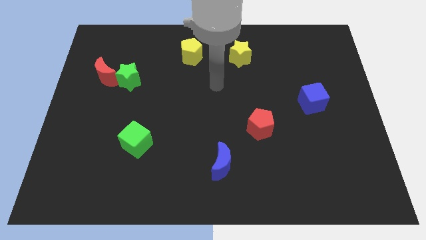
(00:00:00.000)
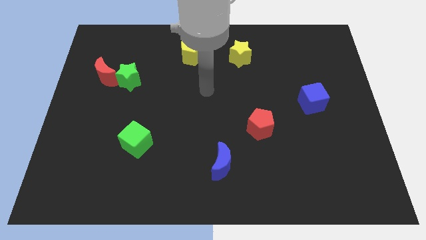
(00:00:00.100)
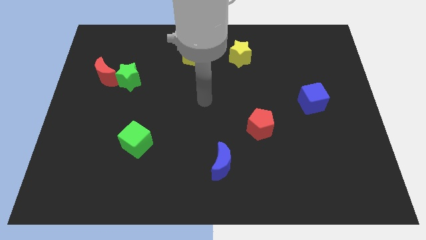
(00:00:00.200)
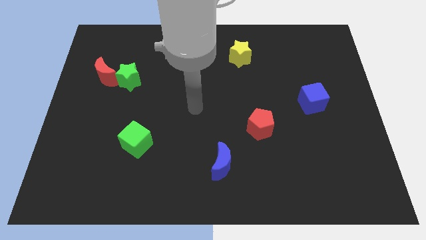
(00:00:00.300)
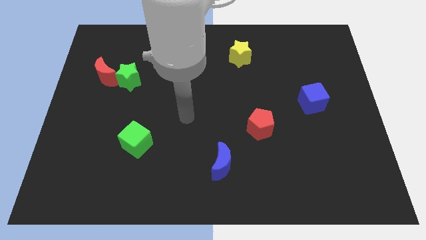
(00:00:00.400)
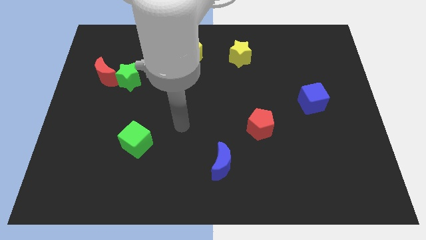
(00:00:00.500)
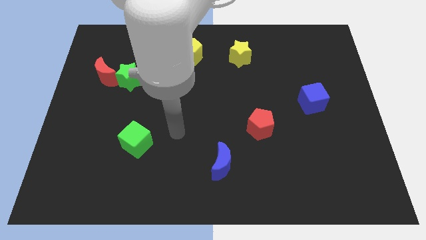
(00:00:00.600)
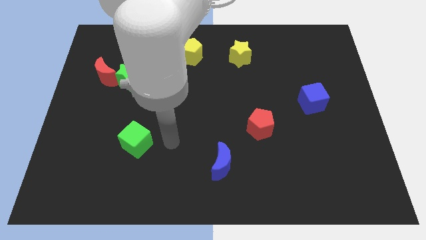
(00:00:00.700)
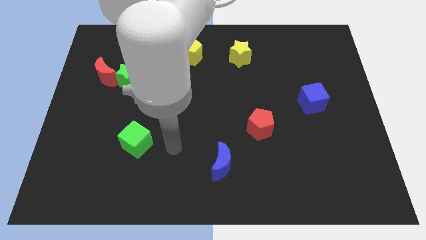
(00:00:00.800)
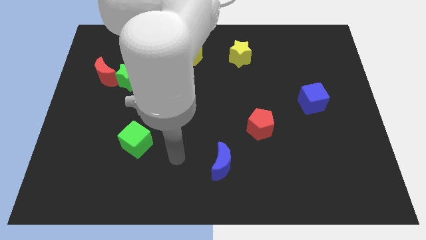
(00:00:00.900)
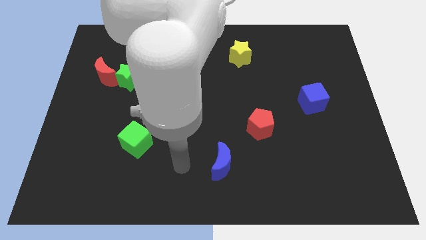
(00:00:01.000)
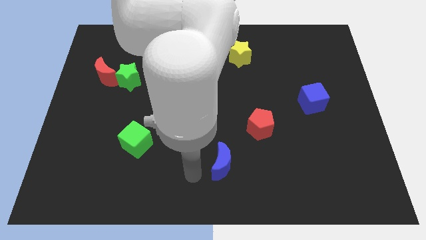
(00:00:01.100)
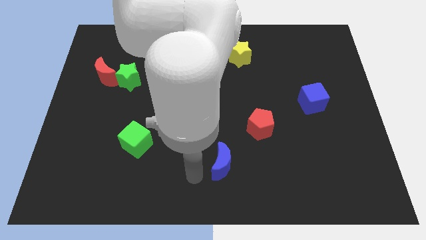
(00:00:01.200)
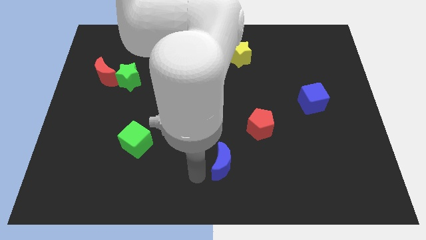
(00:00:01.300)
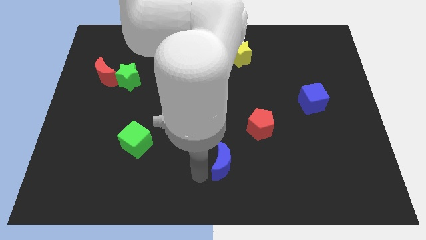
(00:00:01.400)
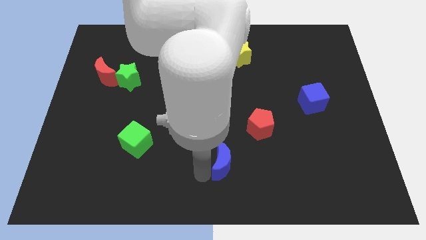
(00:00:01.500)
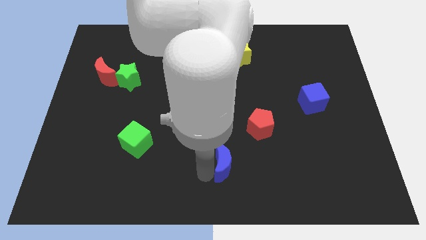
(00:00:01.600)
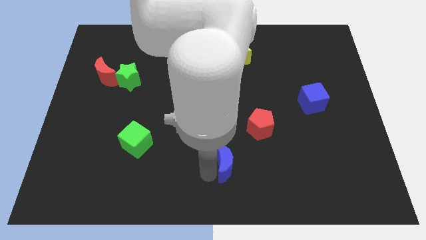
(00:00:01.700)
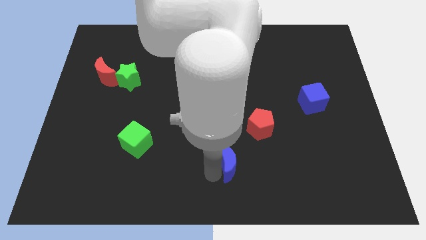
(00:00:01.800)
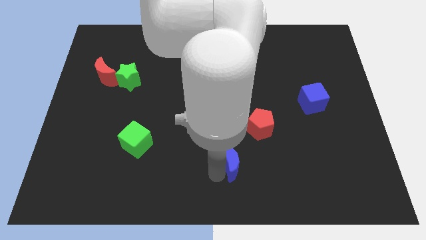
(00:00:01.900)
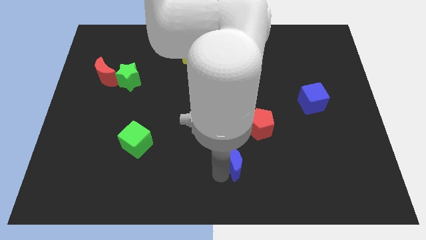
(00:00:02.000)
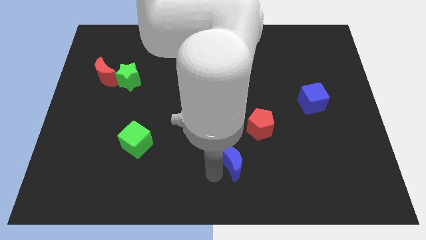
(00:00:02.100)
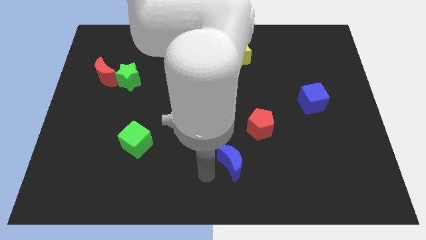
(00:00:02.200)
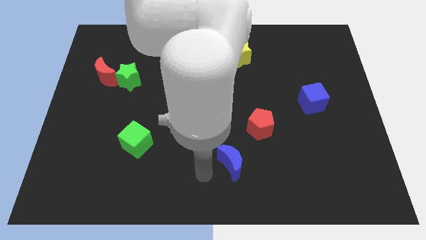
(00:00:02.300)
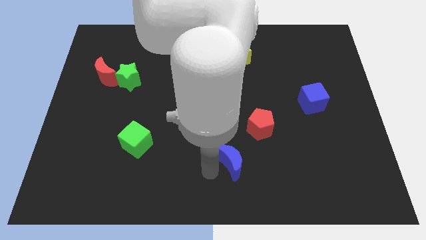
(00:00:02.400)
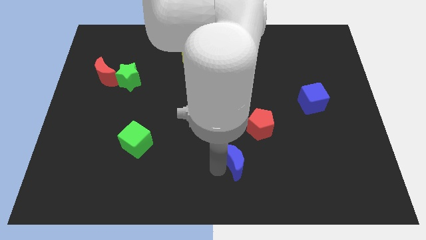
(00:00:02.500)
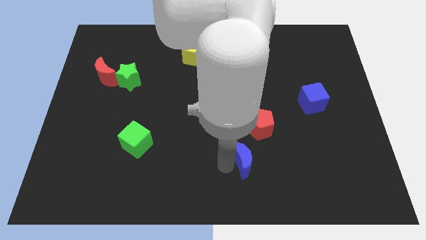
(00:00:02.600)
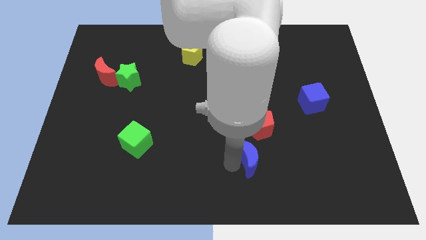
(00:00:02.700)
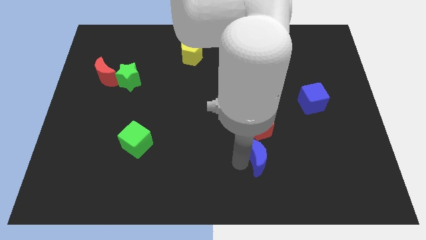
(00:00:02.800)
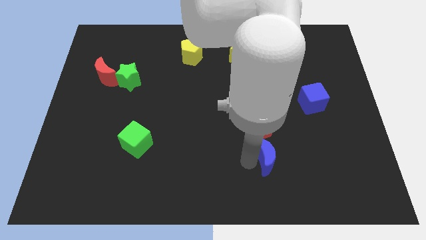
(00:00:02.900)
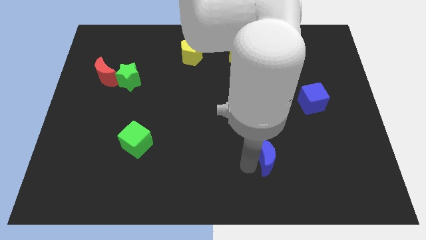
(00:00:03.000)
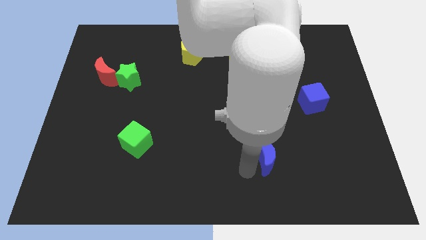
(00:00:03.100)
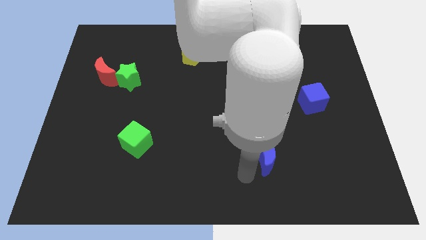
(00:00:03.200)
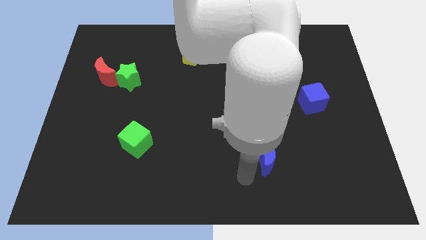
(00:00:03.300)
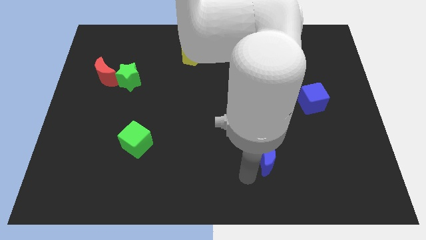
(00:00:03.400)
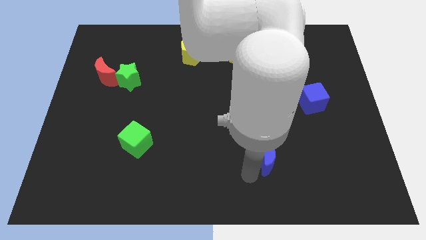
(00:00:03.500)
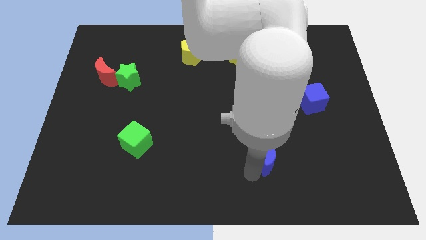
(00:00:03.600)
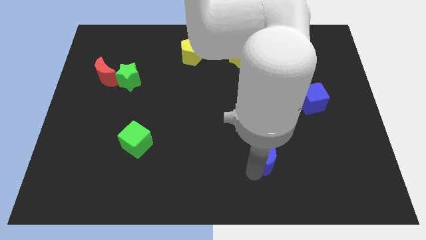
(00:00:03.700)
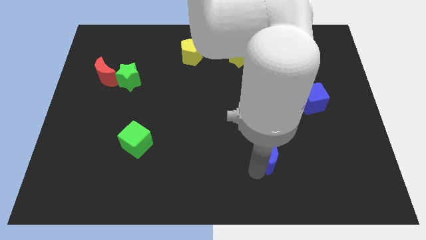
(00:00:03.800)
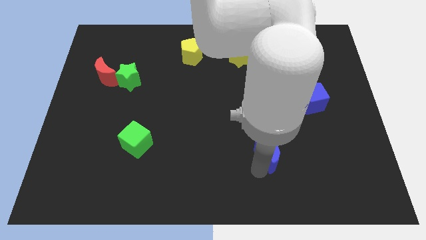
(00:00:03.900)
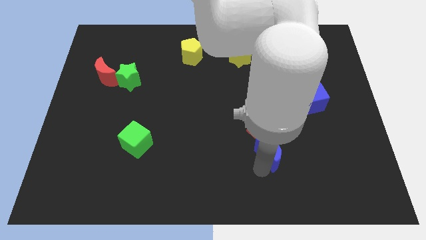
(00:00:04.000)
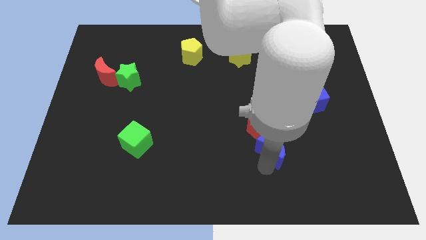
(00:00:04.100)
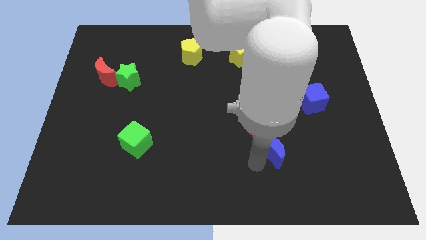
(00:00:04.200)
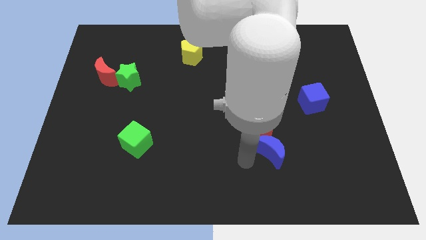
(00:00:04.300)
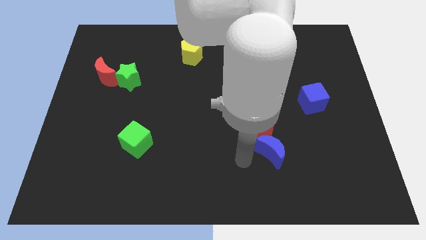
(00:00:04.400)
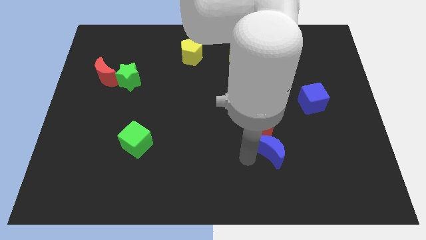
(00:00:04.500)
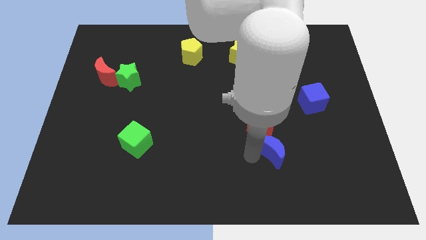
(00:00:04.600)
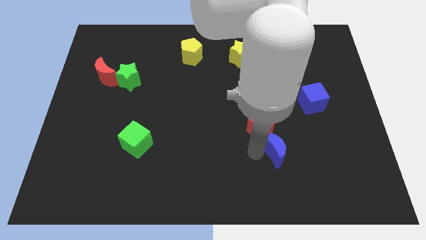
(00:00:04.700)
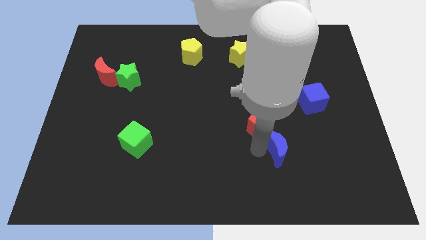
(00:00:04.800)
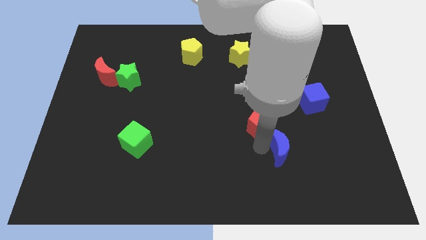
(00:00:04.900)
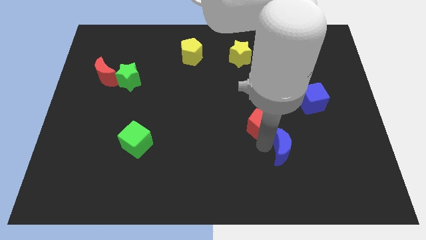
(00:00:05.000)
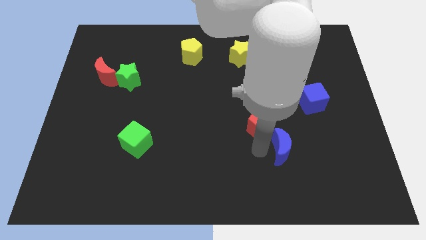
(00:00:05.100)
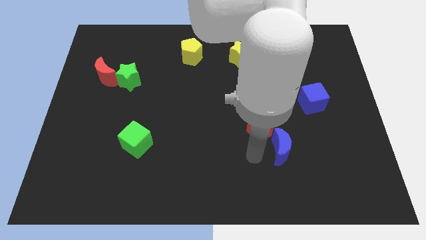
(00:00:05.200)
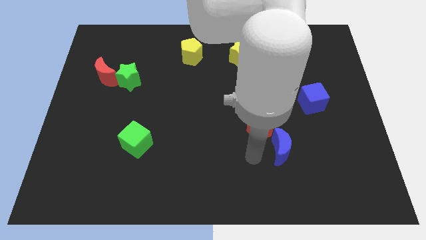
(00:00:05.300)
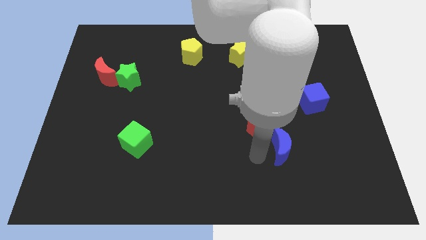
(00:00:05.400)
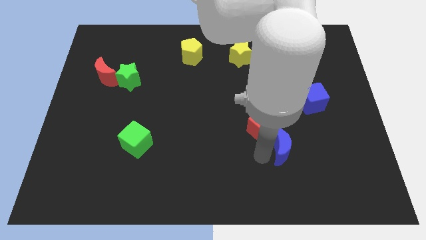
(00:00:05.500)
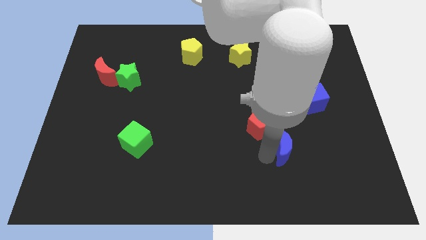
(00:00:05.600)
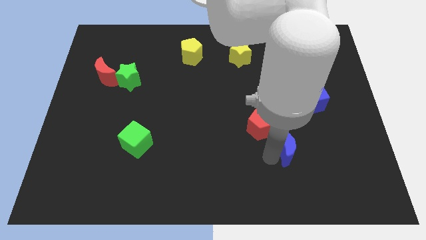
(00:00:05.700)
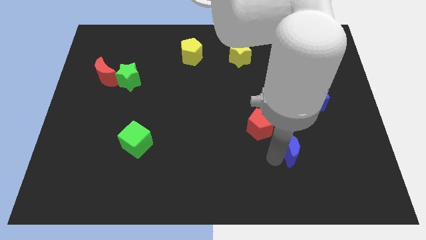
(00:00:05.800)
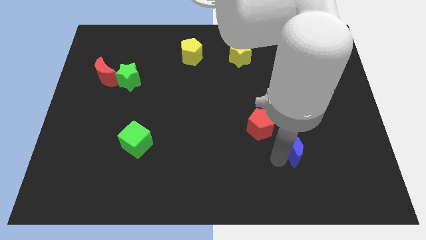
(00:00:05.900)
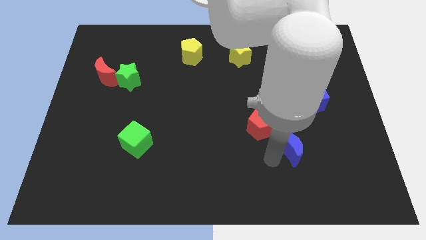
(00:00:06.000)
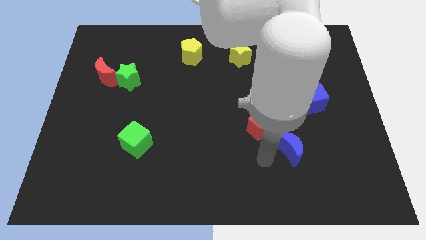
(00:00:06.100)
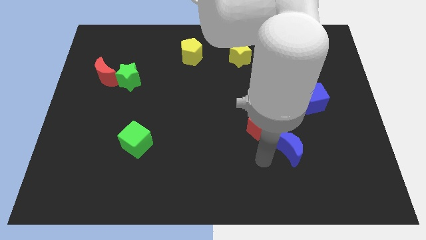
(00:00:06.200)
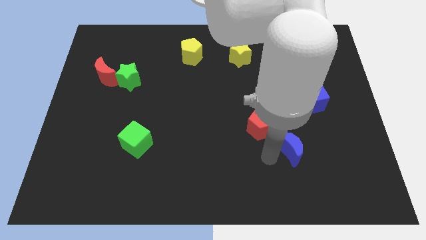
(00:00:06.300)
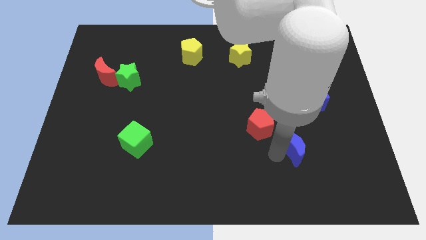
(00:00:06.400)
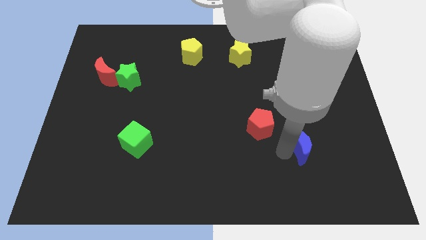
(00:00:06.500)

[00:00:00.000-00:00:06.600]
move the blue moon to the bottom of the blue cube

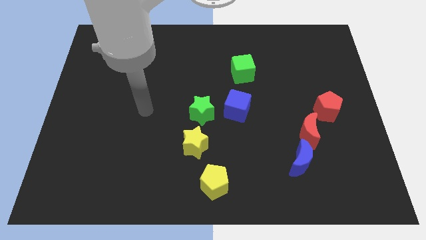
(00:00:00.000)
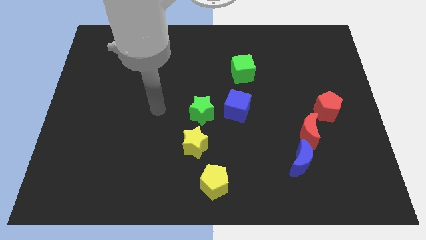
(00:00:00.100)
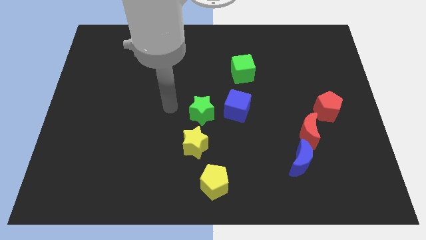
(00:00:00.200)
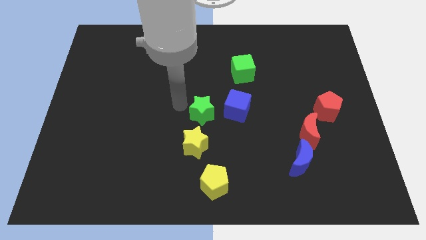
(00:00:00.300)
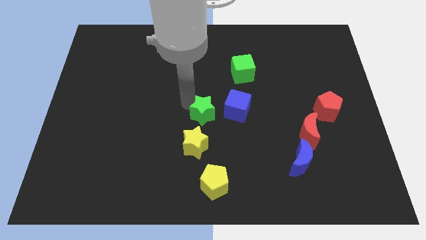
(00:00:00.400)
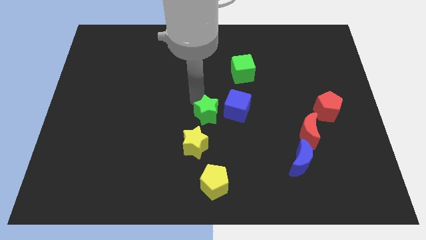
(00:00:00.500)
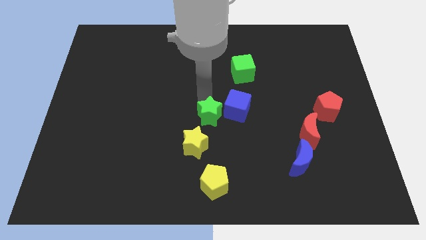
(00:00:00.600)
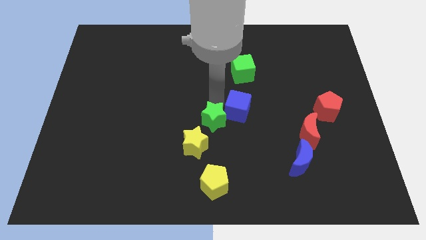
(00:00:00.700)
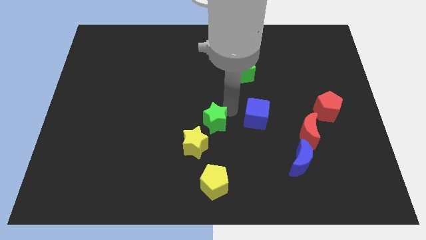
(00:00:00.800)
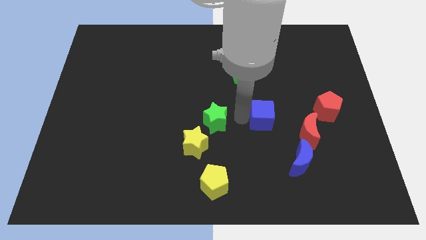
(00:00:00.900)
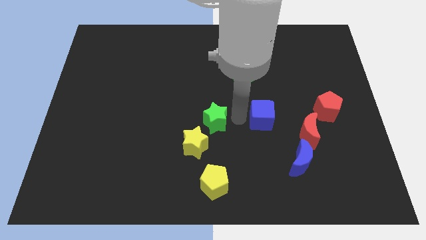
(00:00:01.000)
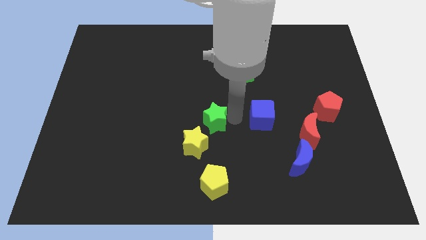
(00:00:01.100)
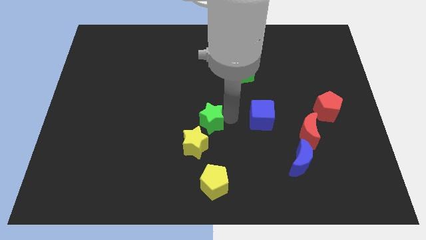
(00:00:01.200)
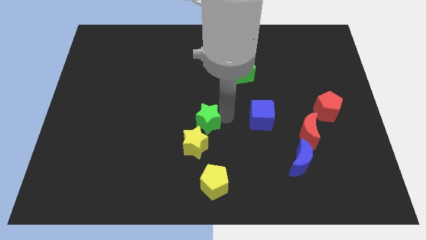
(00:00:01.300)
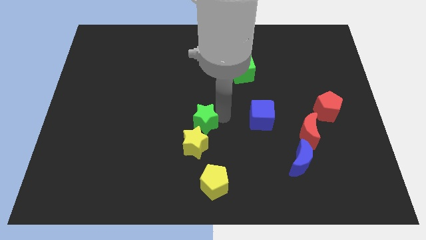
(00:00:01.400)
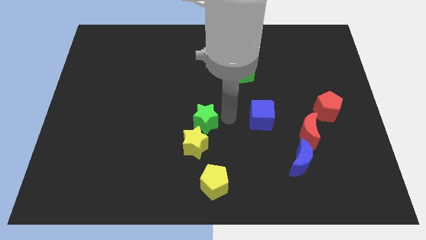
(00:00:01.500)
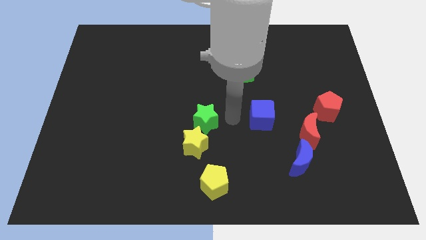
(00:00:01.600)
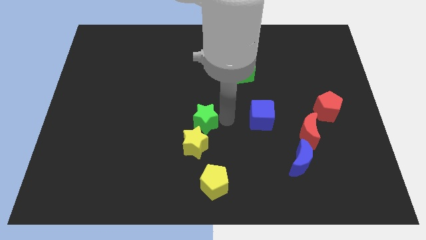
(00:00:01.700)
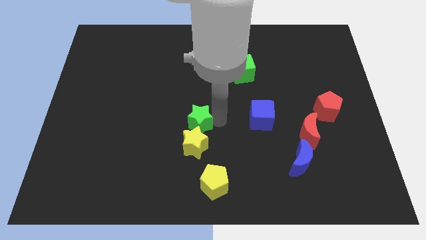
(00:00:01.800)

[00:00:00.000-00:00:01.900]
move the green star to the top left side of the yellow star
